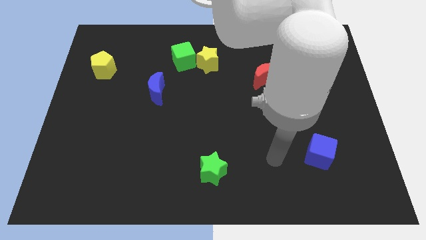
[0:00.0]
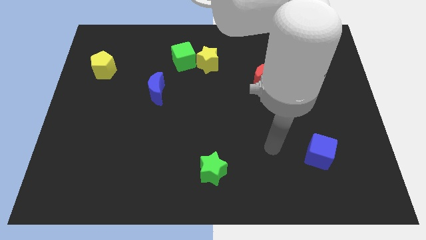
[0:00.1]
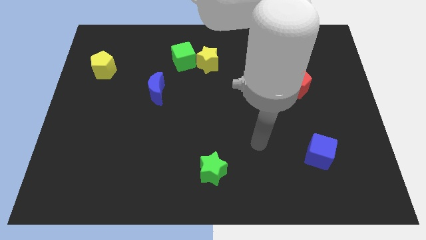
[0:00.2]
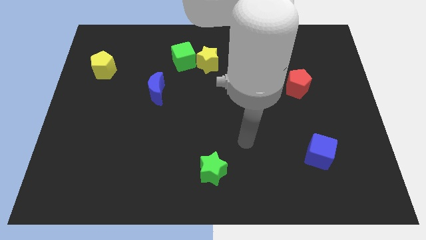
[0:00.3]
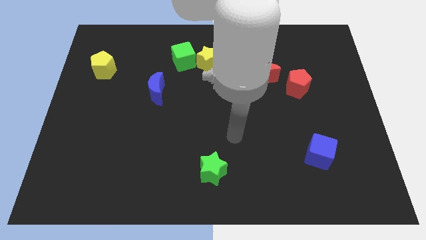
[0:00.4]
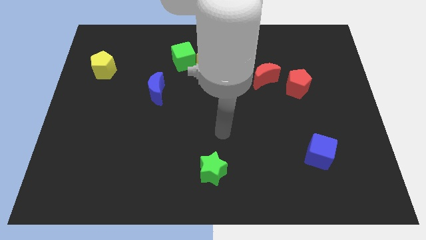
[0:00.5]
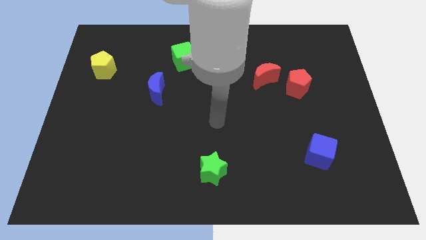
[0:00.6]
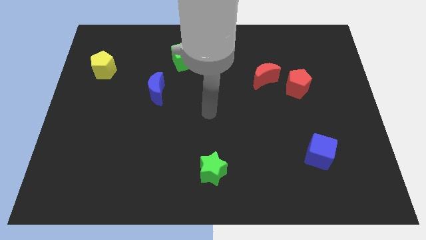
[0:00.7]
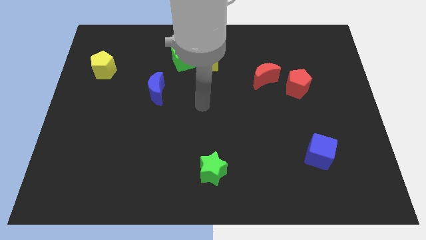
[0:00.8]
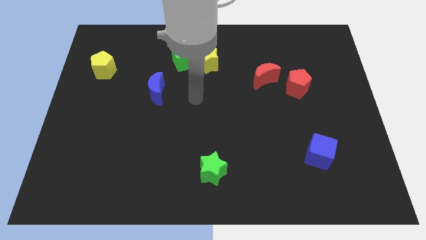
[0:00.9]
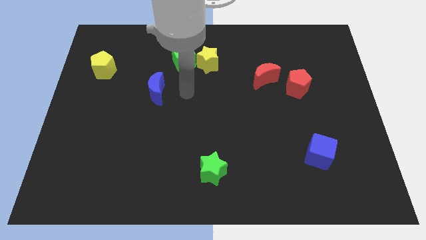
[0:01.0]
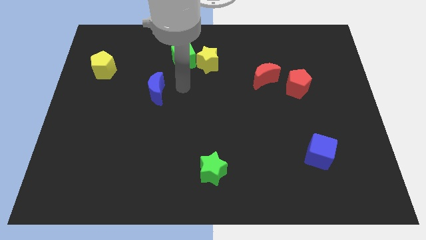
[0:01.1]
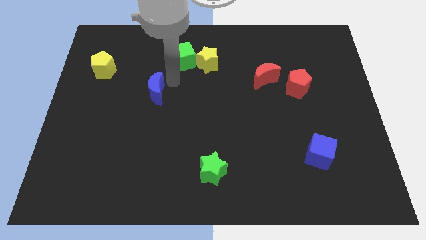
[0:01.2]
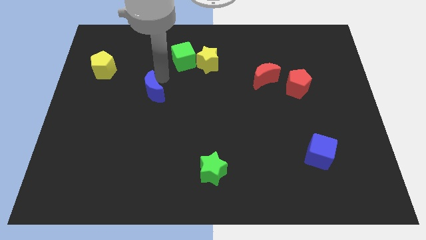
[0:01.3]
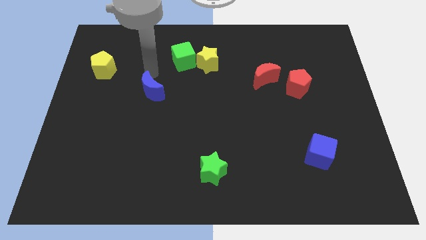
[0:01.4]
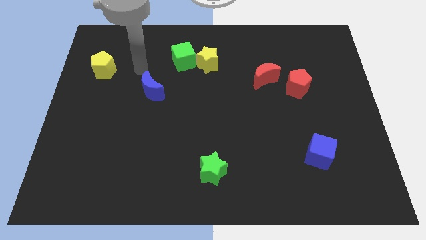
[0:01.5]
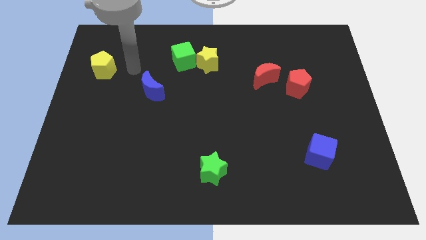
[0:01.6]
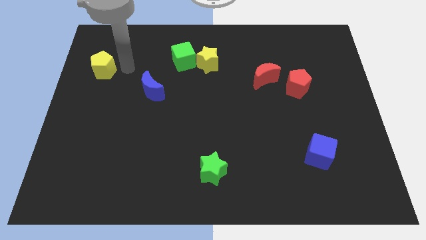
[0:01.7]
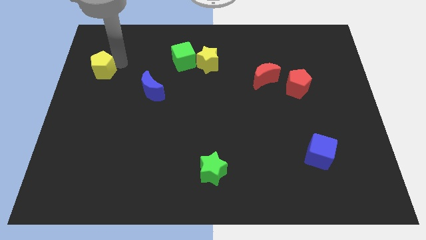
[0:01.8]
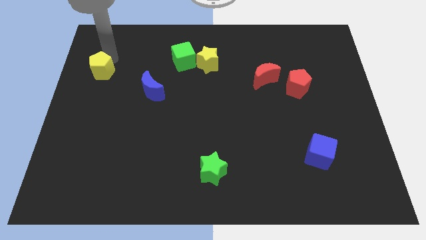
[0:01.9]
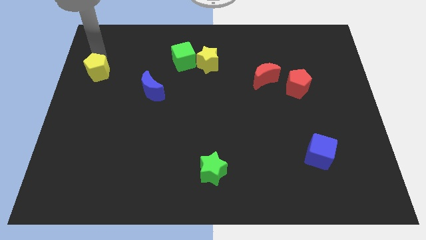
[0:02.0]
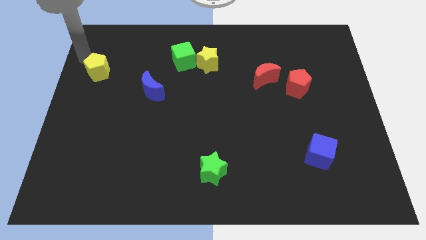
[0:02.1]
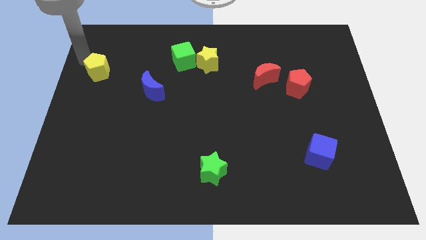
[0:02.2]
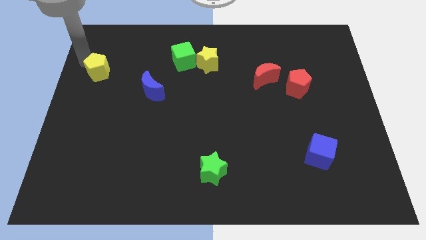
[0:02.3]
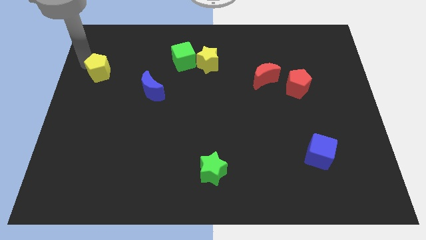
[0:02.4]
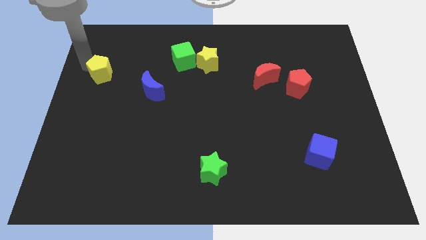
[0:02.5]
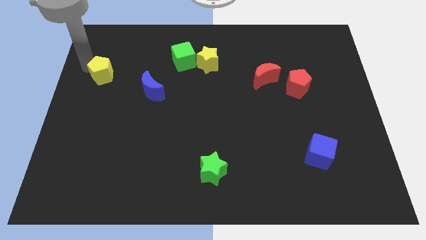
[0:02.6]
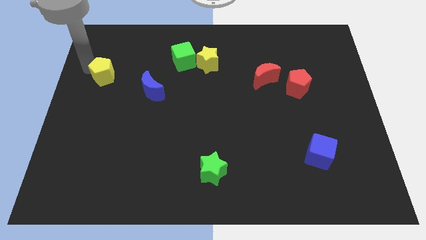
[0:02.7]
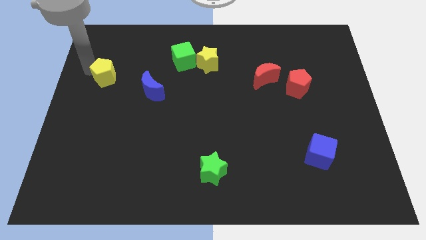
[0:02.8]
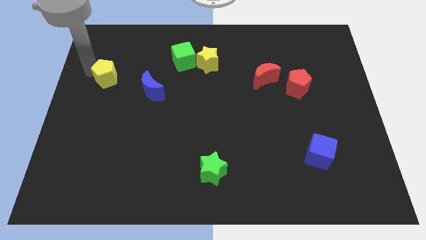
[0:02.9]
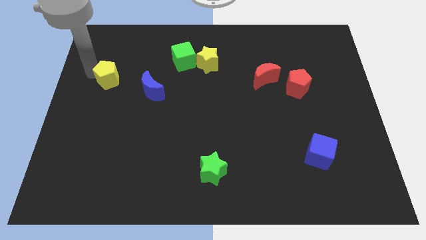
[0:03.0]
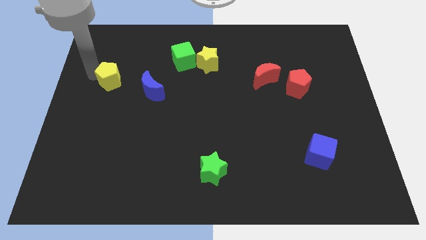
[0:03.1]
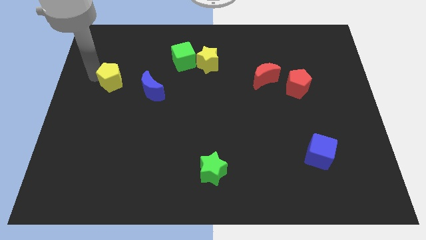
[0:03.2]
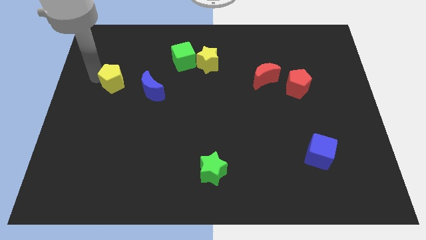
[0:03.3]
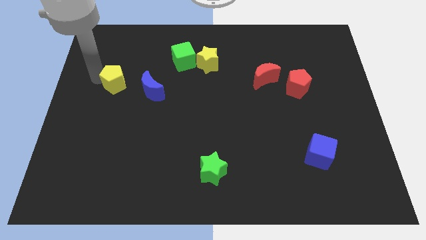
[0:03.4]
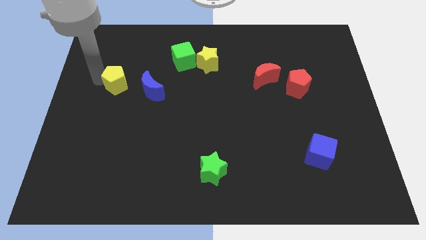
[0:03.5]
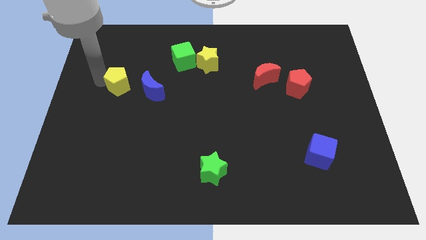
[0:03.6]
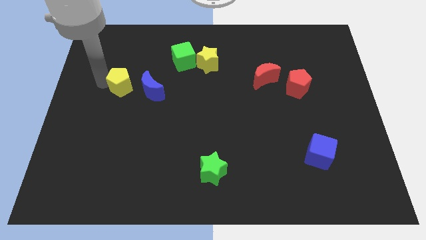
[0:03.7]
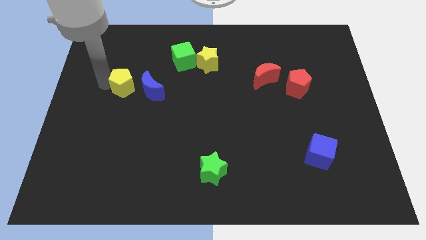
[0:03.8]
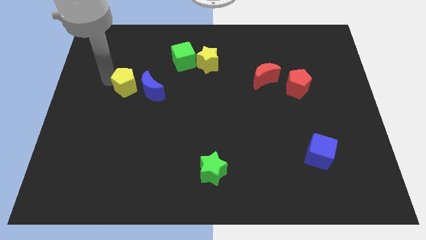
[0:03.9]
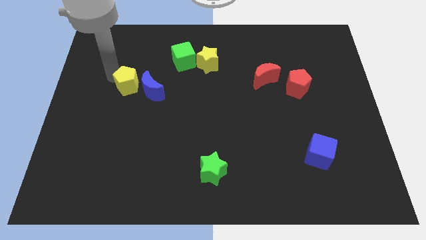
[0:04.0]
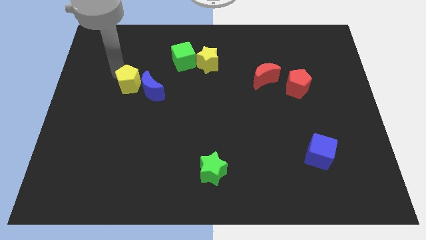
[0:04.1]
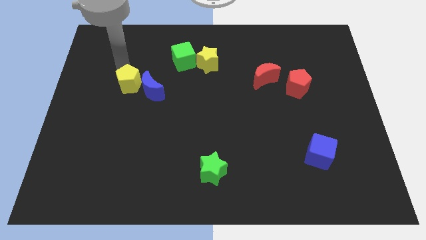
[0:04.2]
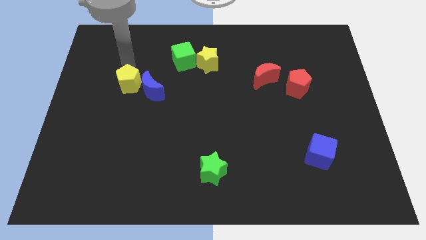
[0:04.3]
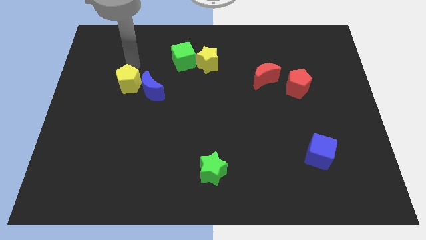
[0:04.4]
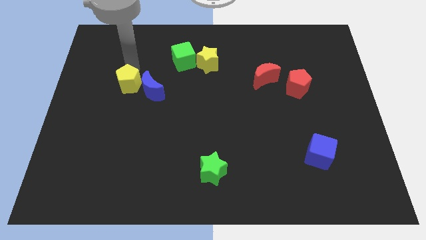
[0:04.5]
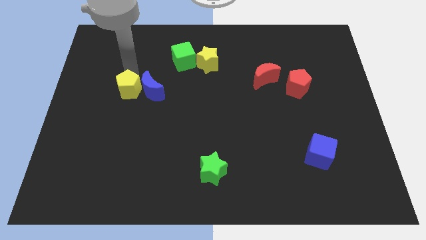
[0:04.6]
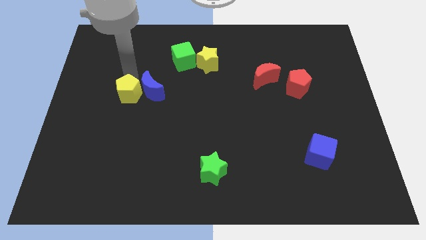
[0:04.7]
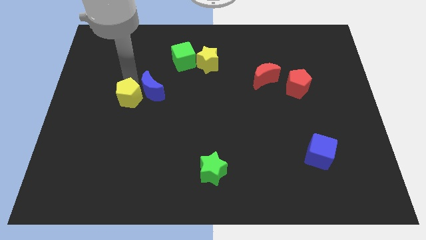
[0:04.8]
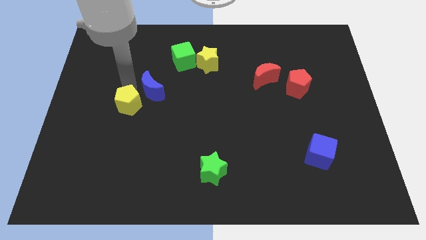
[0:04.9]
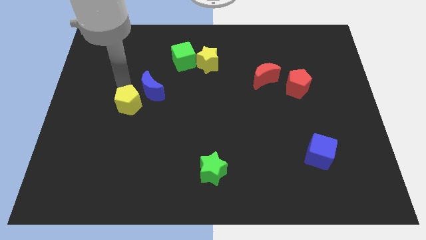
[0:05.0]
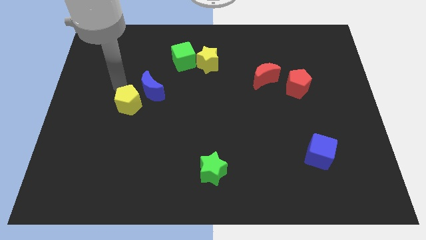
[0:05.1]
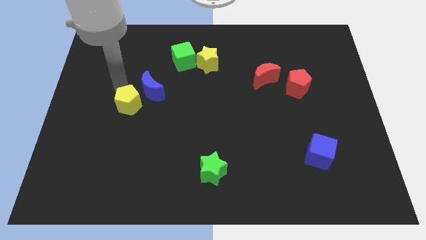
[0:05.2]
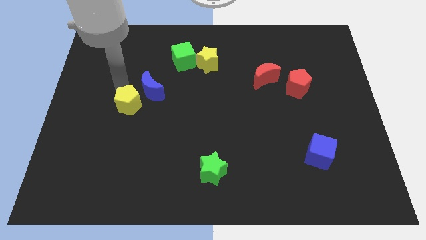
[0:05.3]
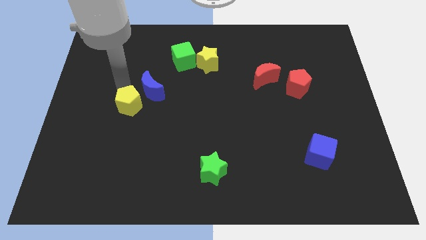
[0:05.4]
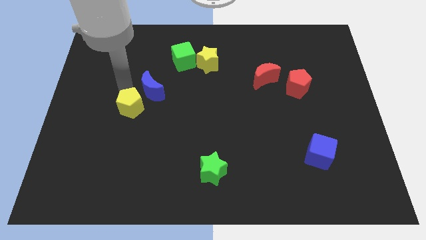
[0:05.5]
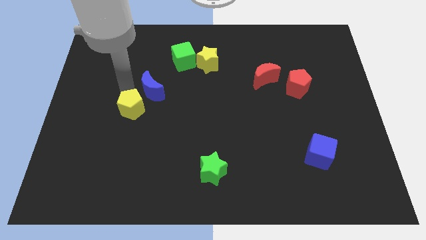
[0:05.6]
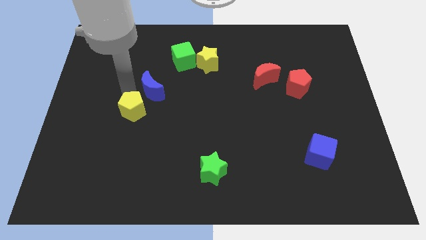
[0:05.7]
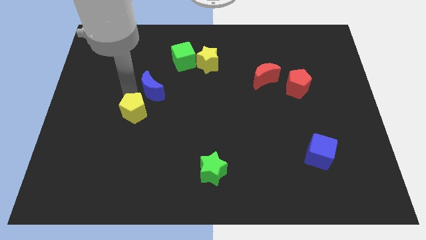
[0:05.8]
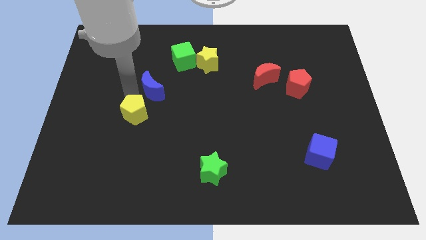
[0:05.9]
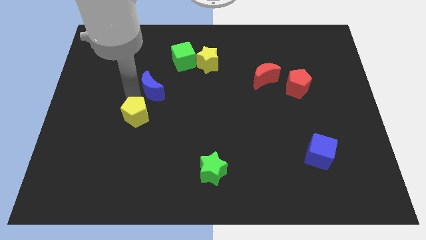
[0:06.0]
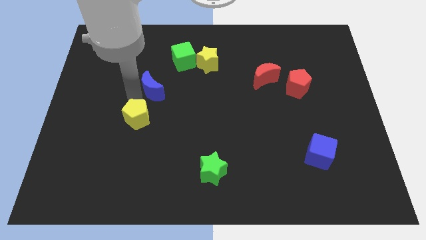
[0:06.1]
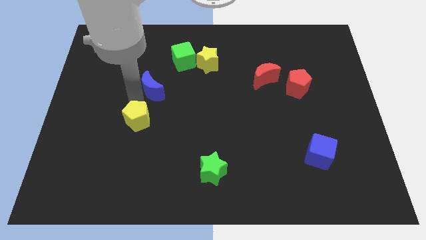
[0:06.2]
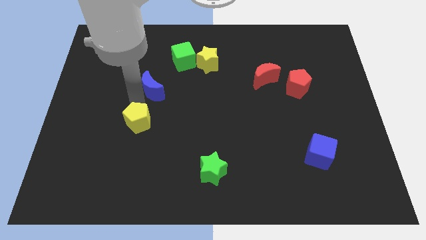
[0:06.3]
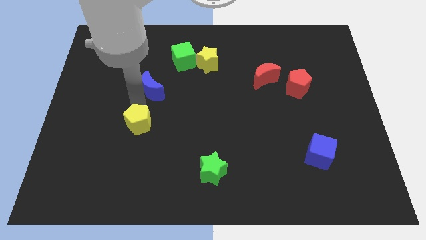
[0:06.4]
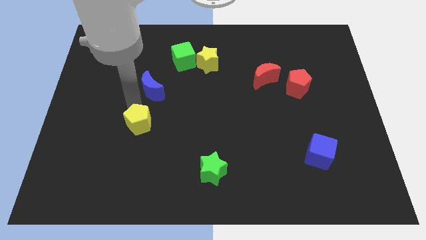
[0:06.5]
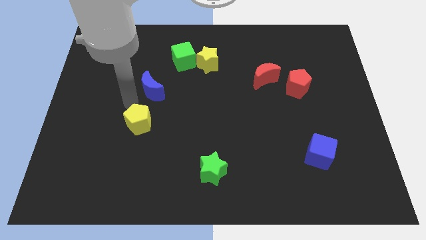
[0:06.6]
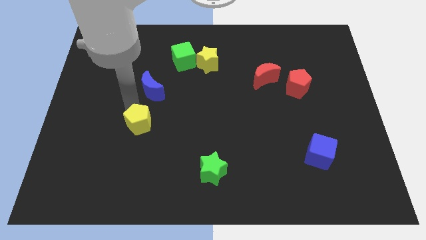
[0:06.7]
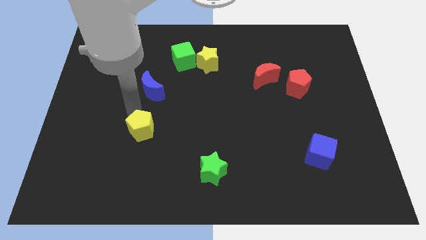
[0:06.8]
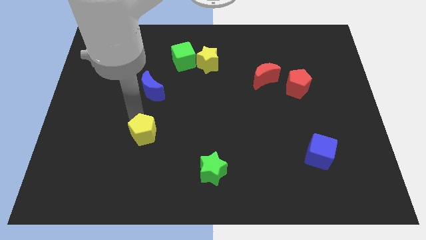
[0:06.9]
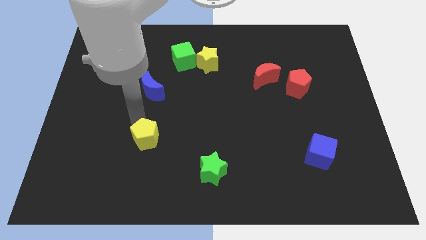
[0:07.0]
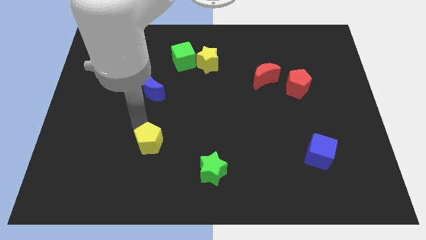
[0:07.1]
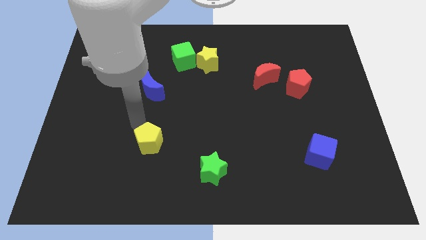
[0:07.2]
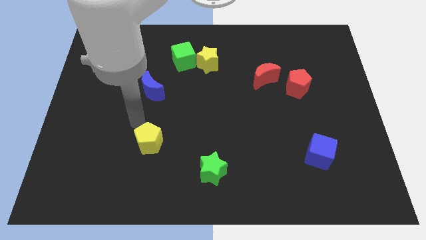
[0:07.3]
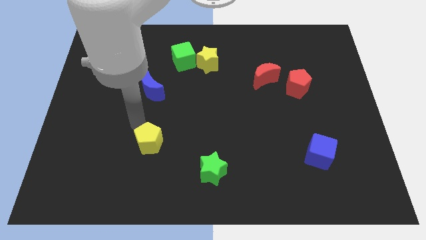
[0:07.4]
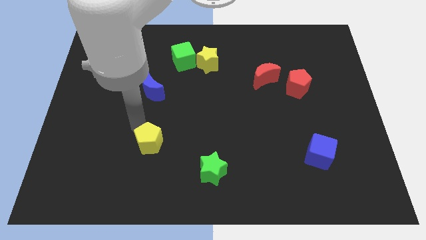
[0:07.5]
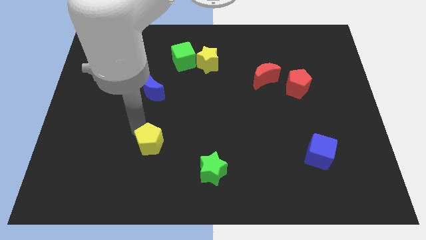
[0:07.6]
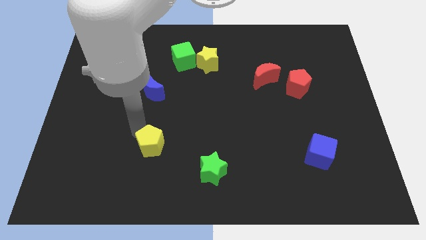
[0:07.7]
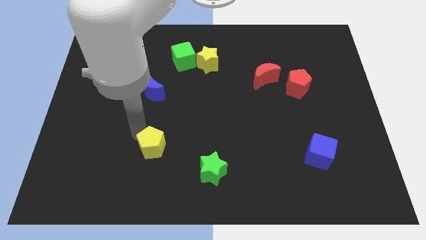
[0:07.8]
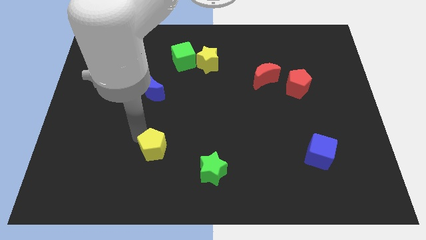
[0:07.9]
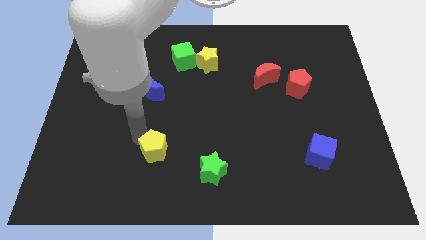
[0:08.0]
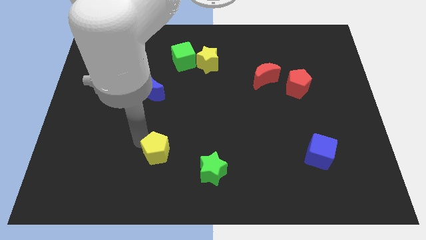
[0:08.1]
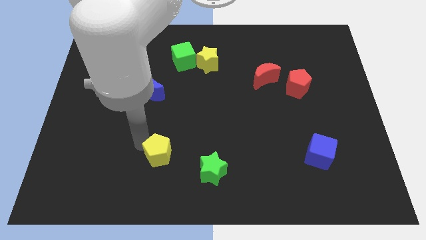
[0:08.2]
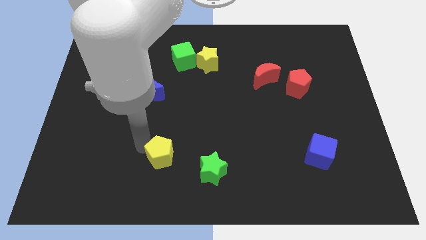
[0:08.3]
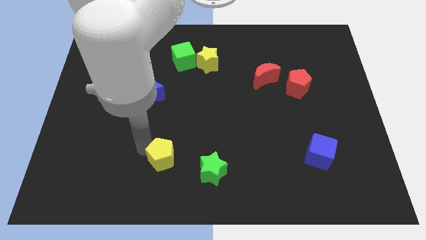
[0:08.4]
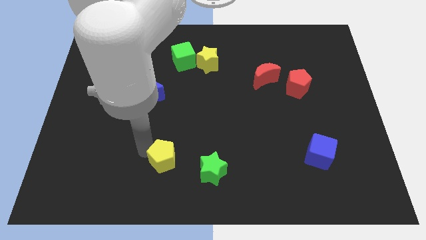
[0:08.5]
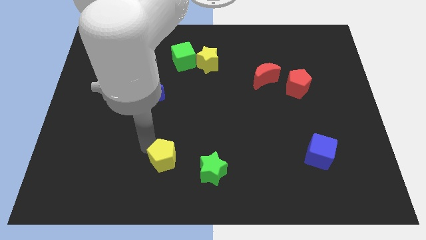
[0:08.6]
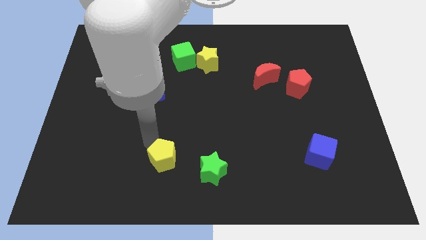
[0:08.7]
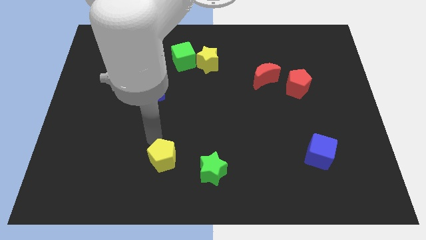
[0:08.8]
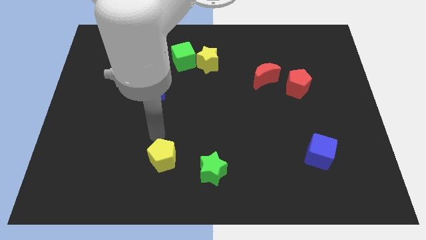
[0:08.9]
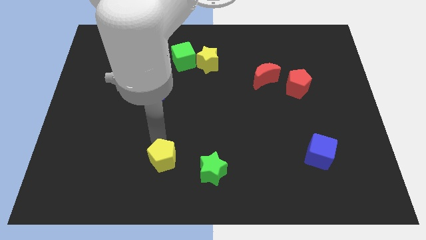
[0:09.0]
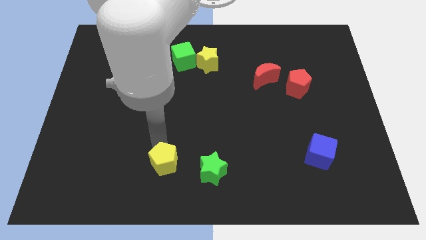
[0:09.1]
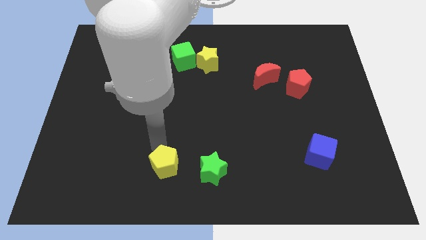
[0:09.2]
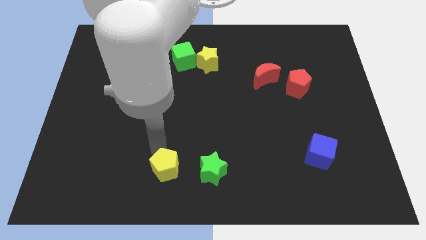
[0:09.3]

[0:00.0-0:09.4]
slide the yellow pentagon to the bottom
